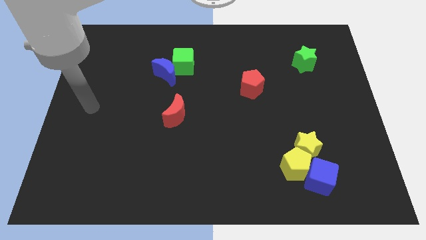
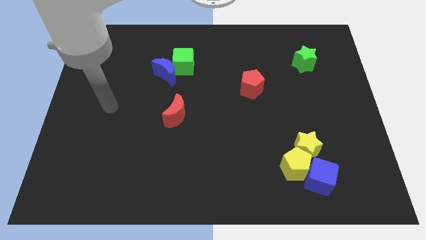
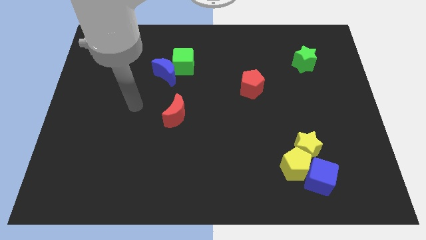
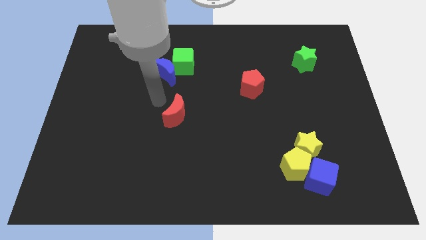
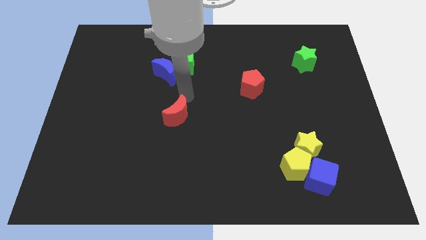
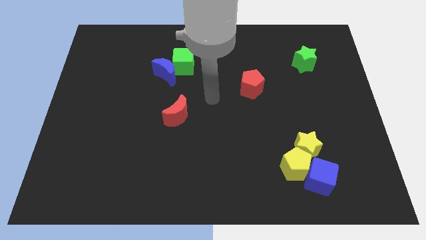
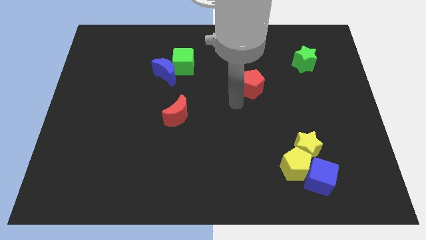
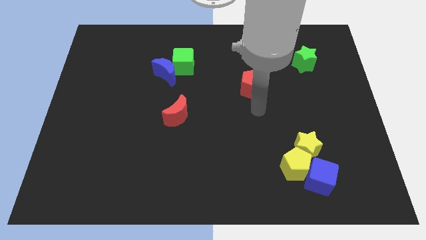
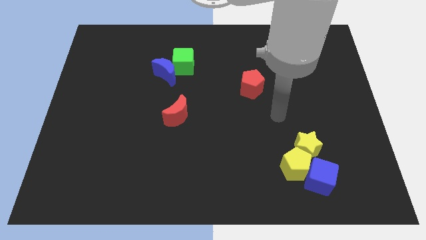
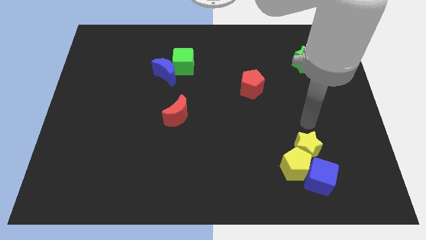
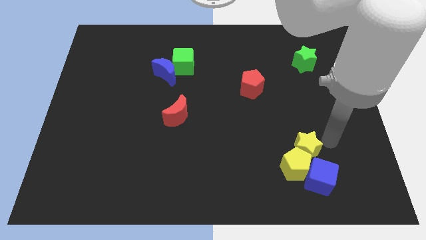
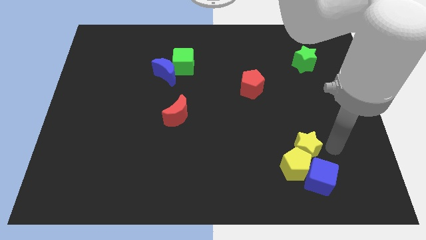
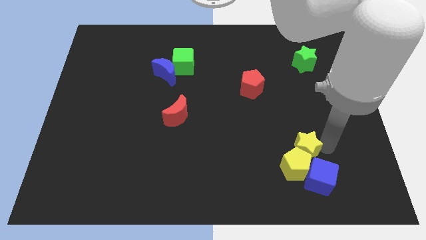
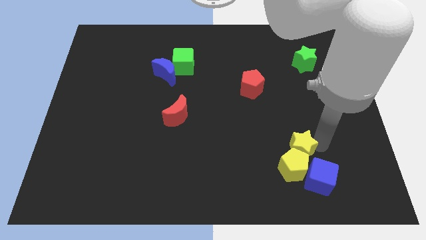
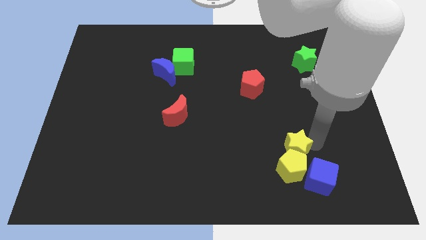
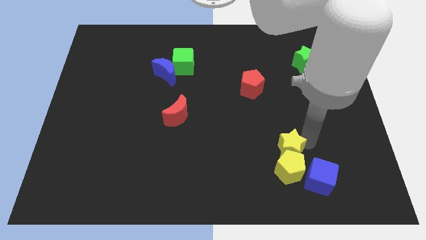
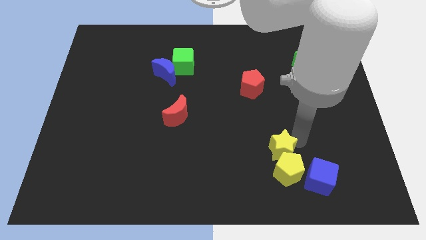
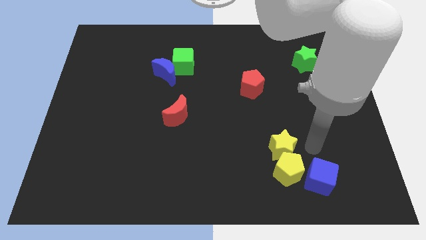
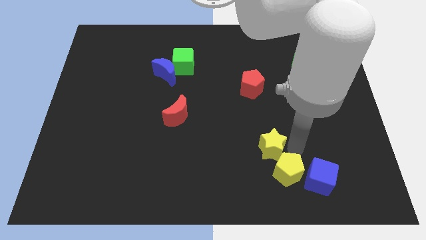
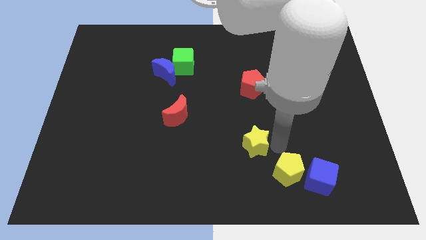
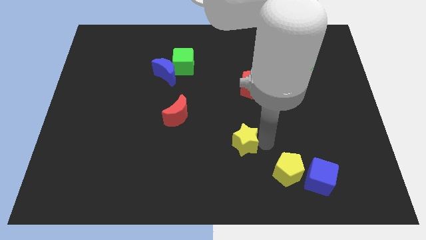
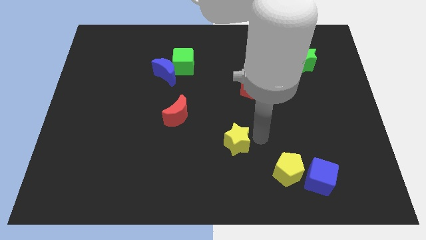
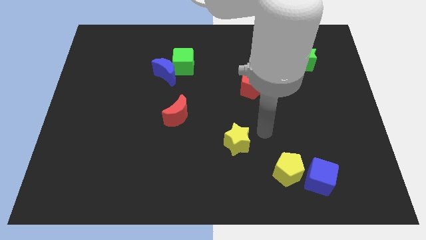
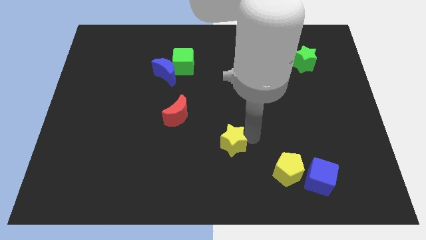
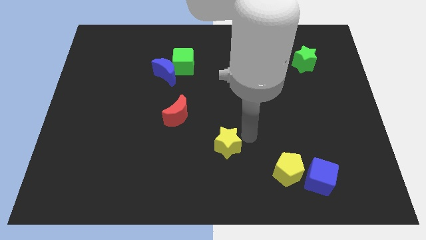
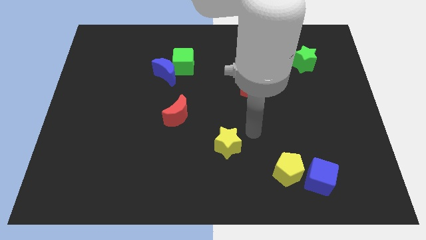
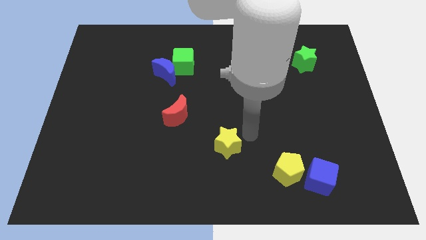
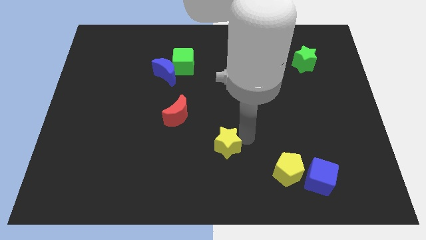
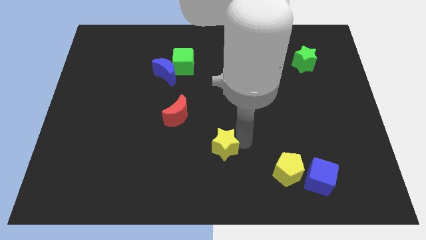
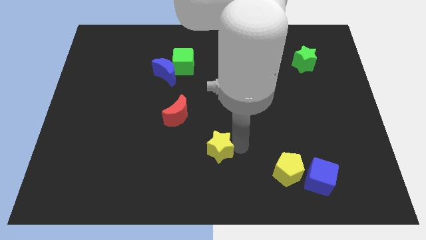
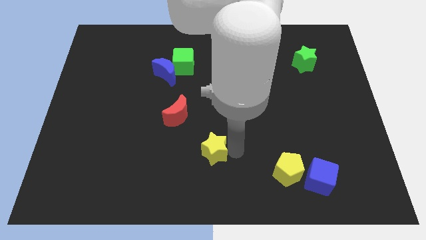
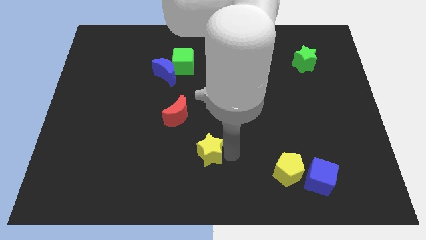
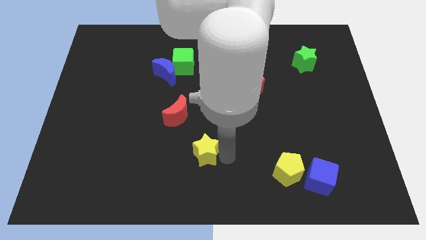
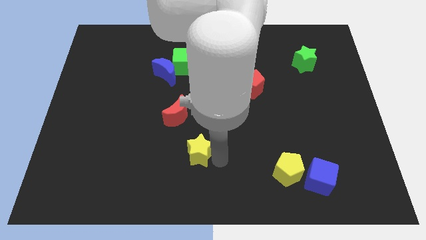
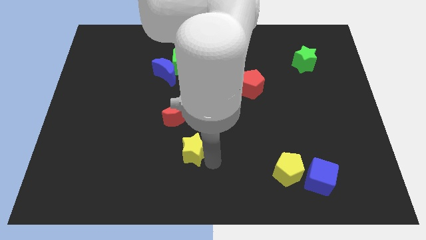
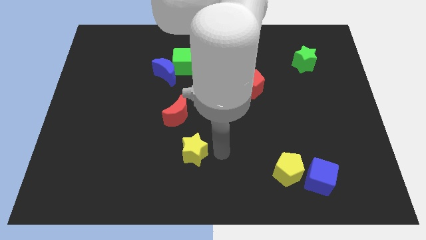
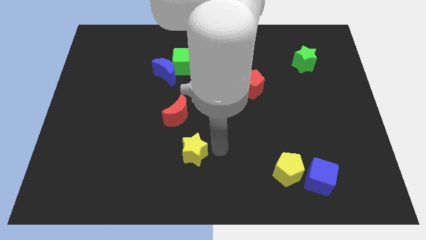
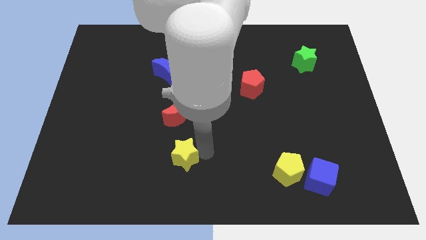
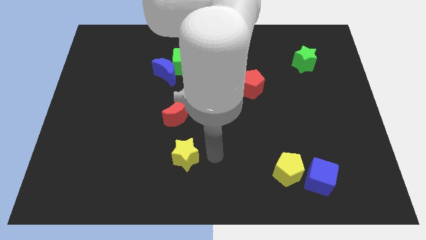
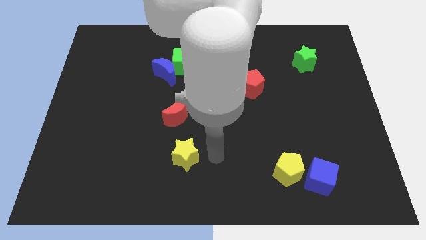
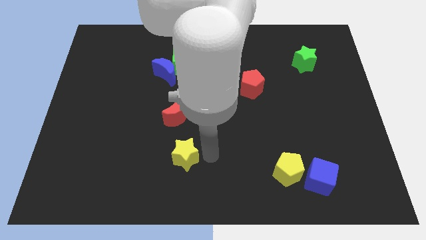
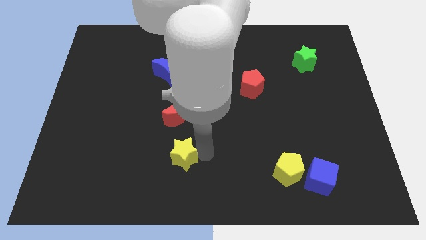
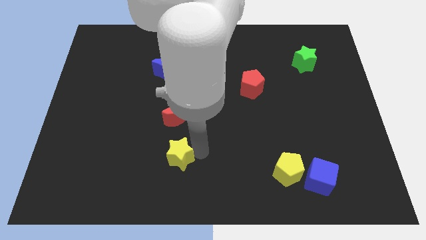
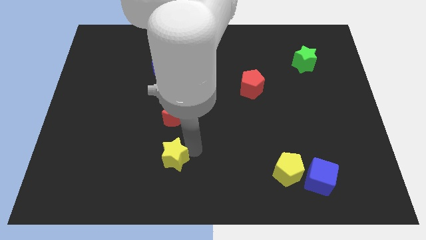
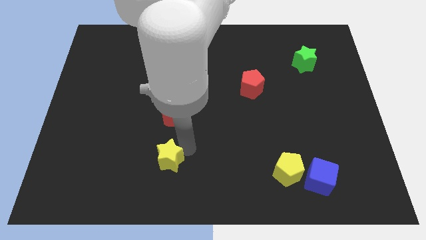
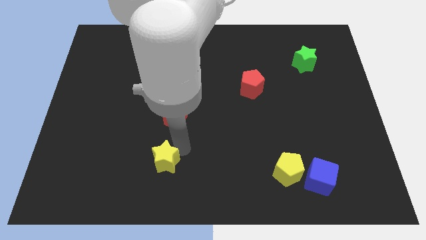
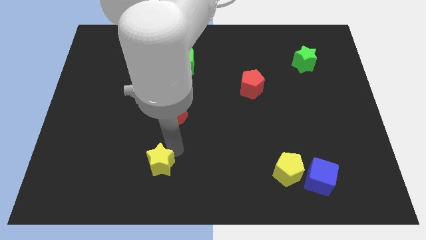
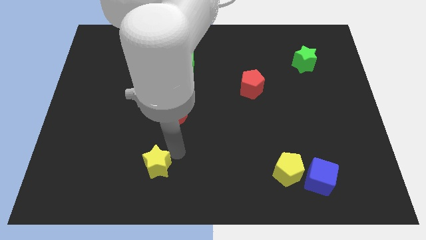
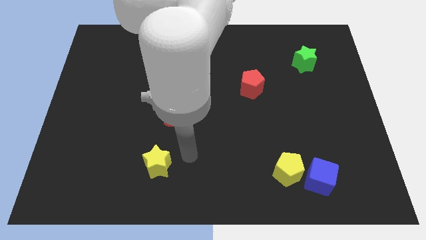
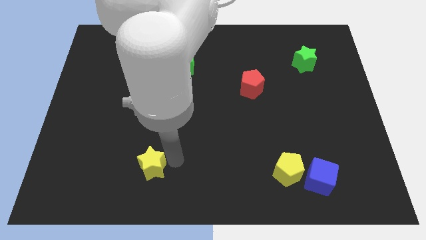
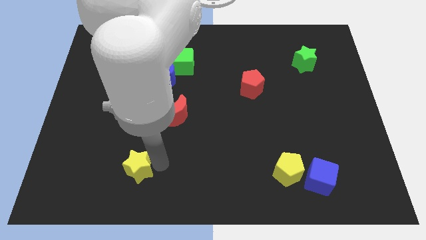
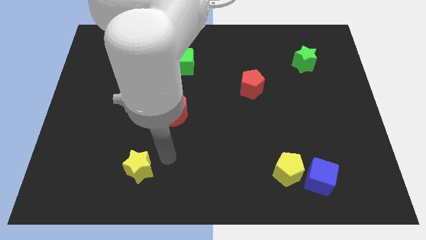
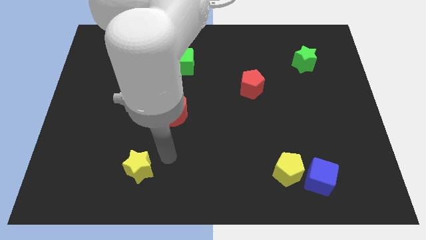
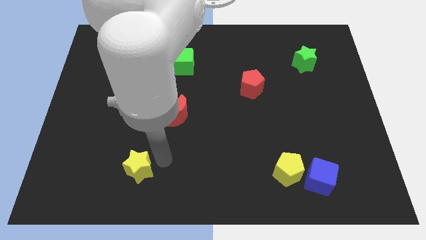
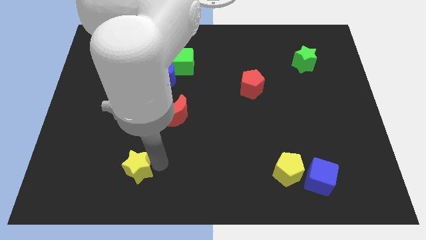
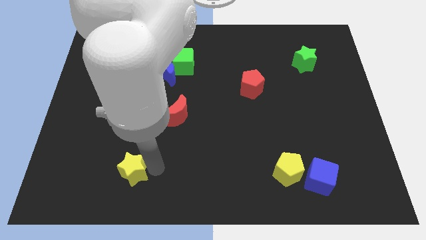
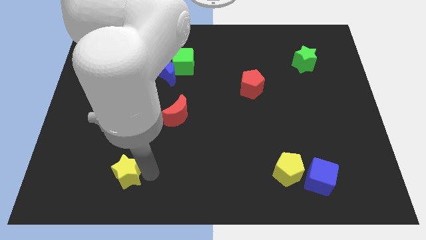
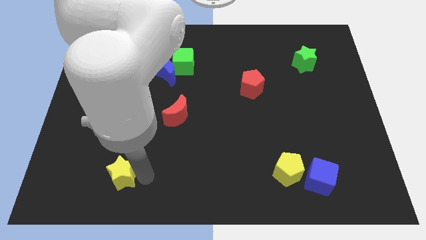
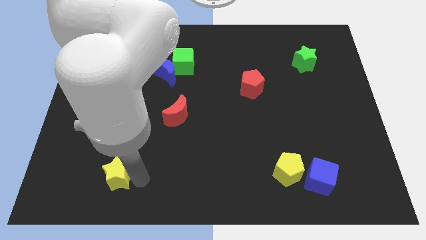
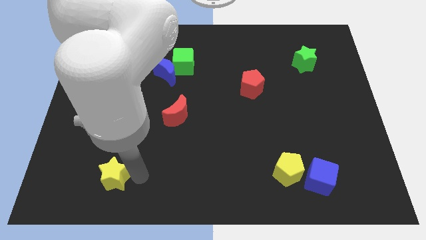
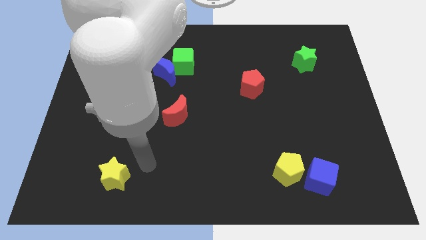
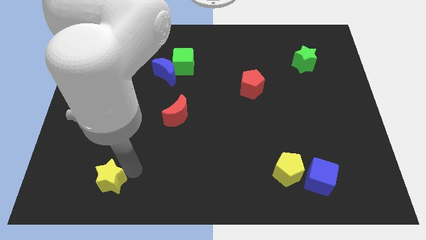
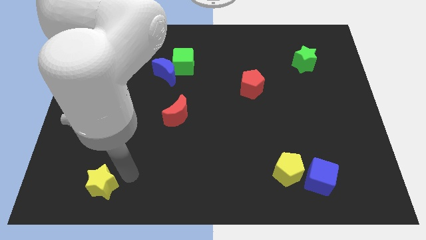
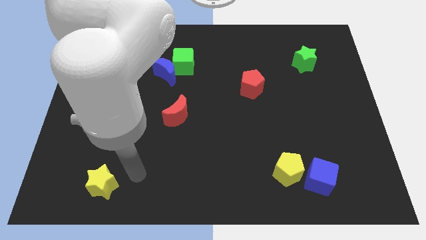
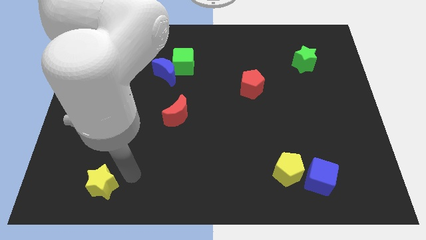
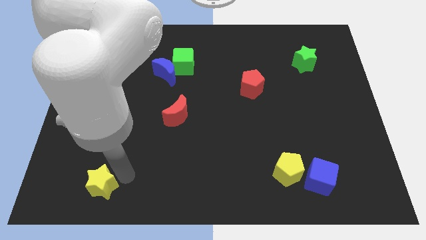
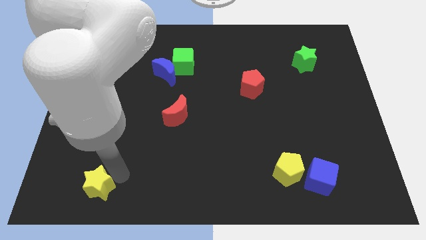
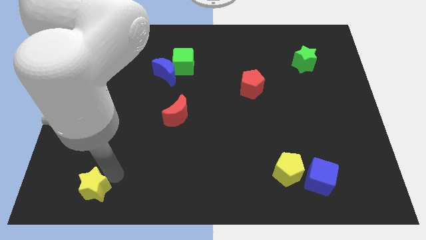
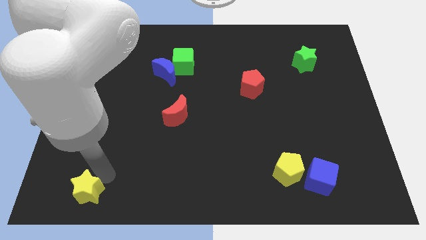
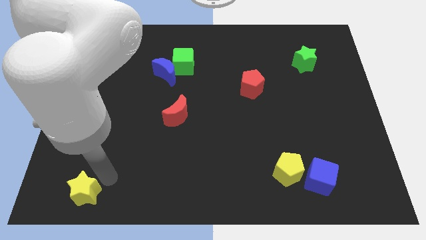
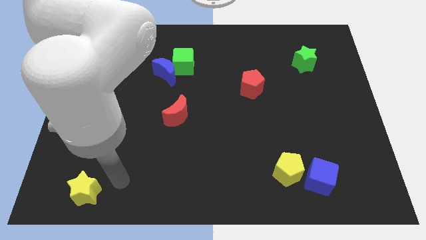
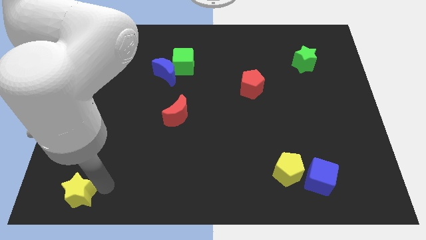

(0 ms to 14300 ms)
move the yellow star to the lower left corner
